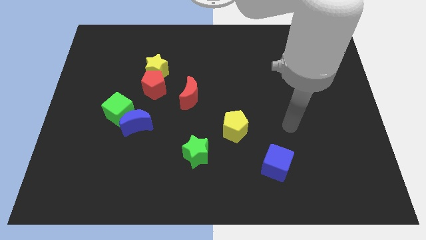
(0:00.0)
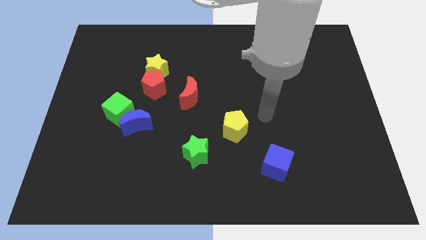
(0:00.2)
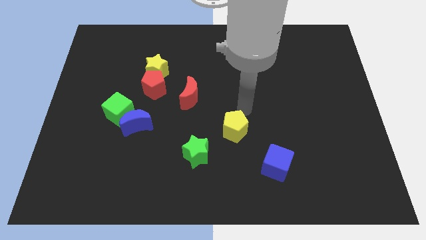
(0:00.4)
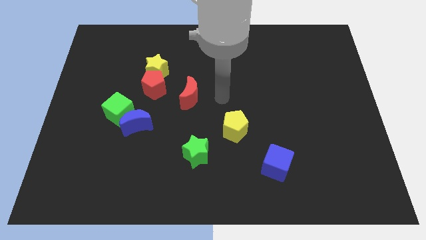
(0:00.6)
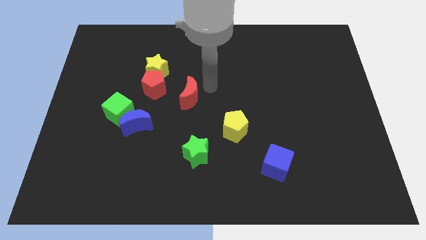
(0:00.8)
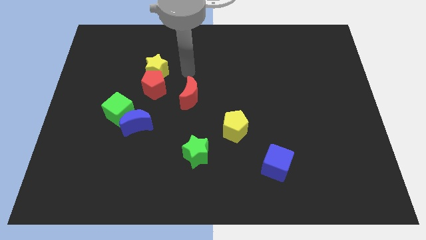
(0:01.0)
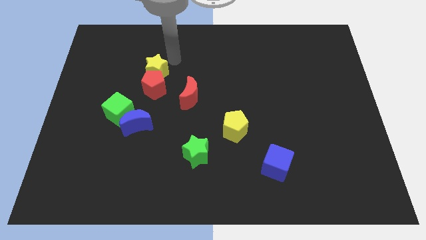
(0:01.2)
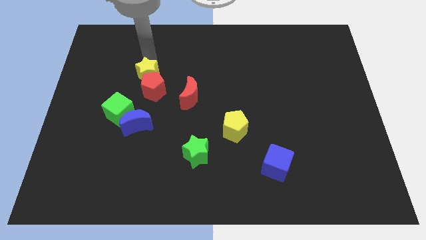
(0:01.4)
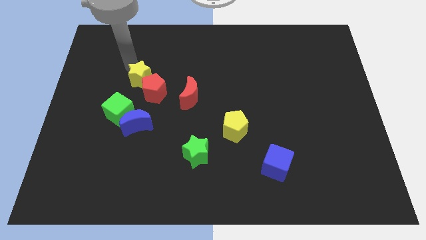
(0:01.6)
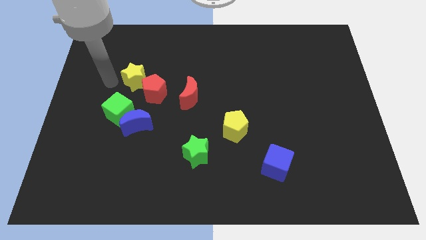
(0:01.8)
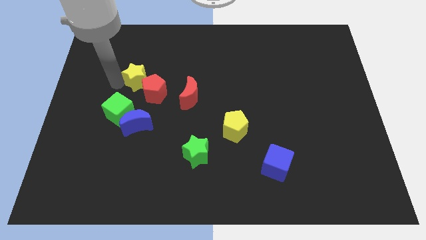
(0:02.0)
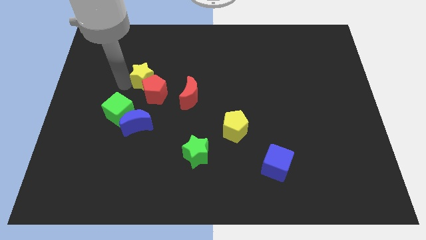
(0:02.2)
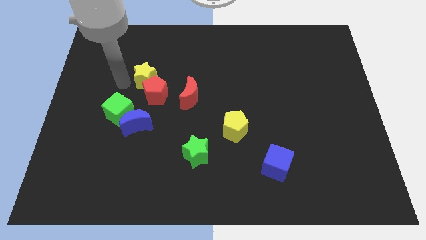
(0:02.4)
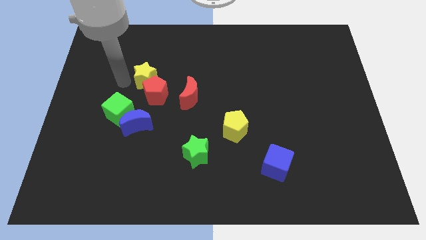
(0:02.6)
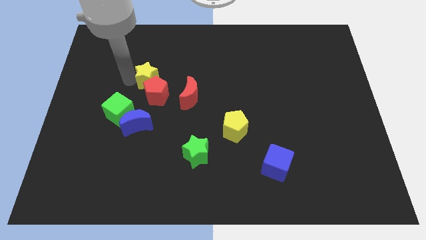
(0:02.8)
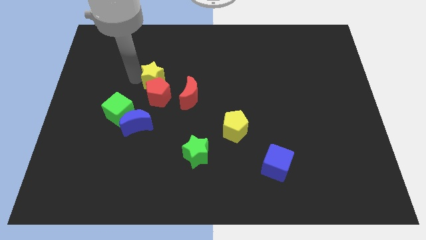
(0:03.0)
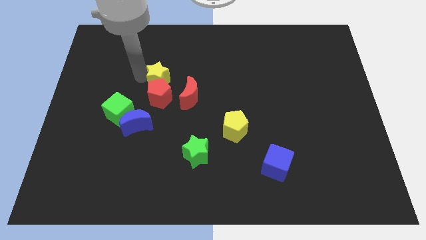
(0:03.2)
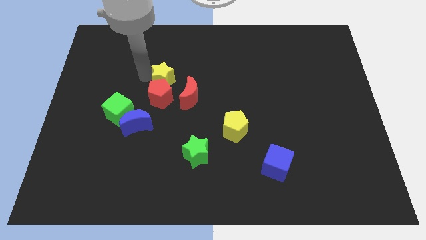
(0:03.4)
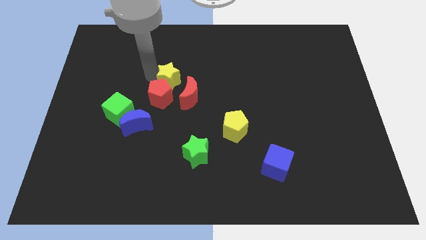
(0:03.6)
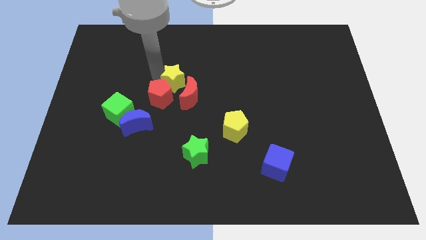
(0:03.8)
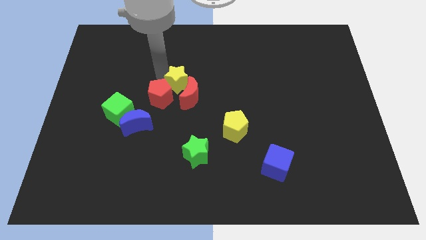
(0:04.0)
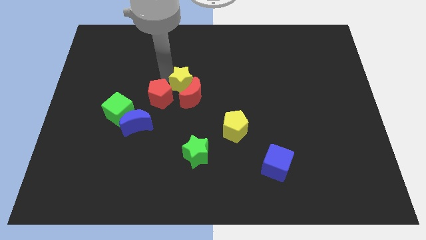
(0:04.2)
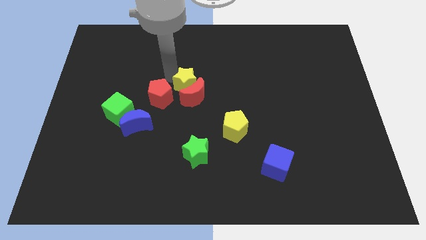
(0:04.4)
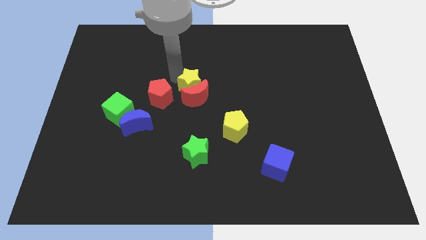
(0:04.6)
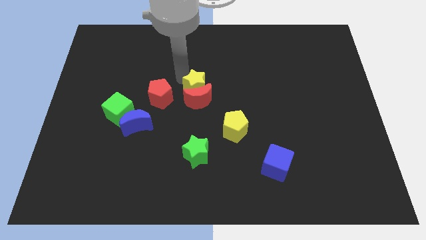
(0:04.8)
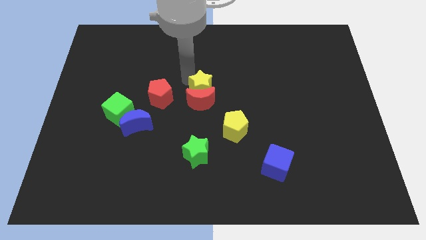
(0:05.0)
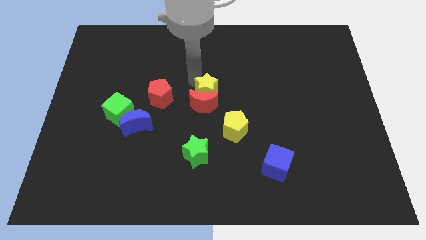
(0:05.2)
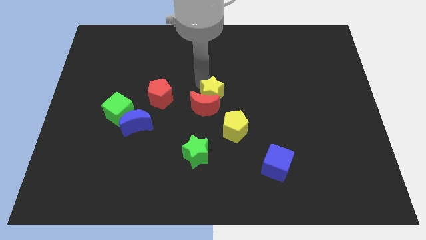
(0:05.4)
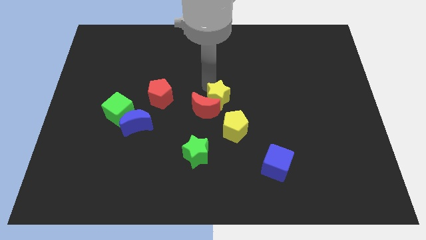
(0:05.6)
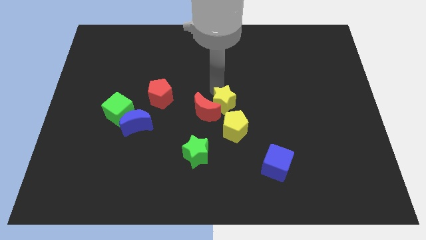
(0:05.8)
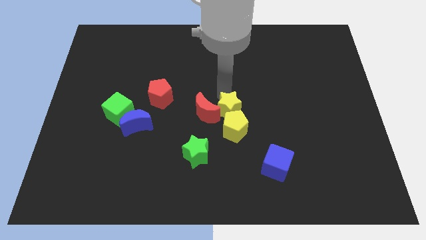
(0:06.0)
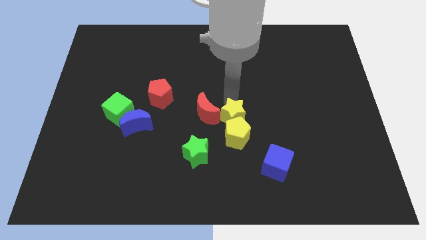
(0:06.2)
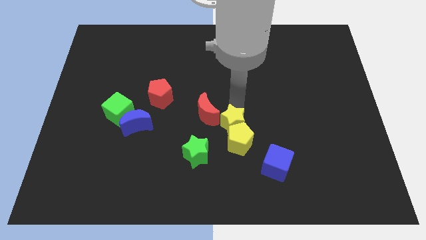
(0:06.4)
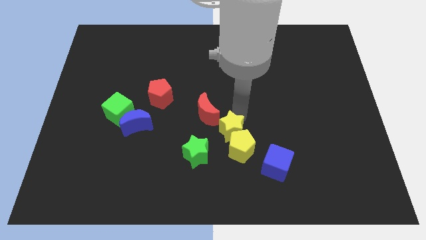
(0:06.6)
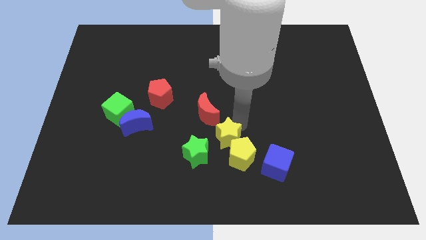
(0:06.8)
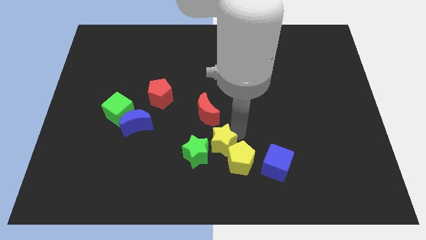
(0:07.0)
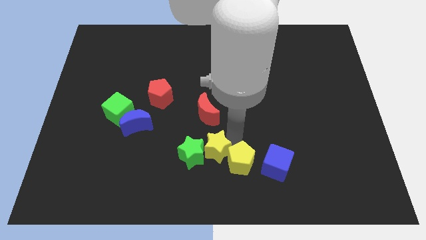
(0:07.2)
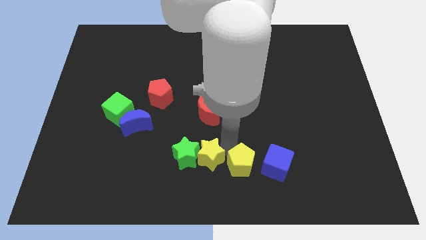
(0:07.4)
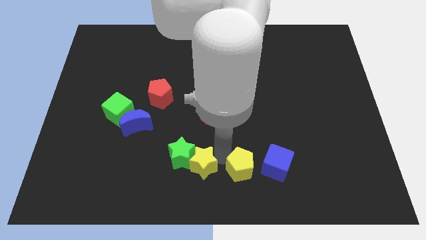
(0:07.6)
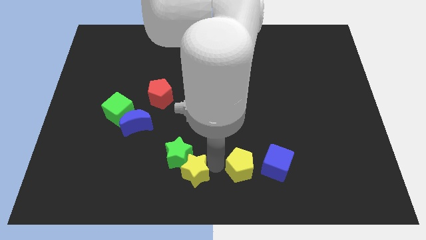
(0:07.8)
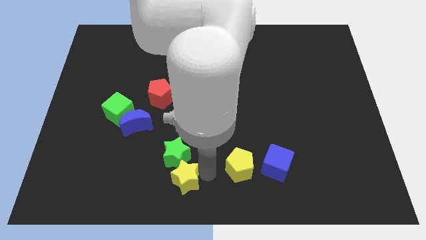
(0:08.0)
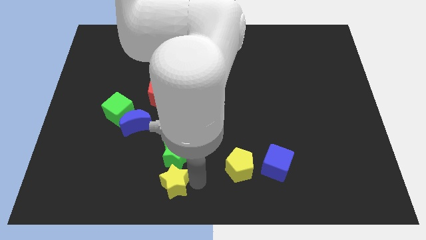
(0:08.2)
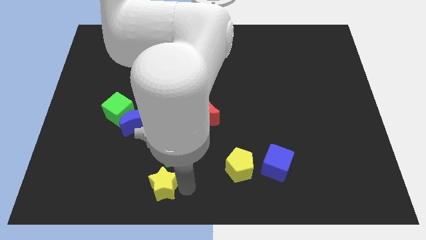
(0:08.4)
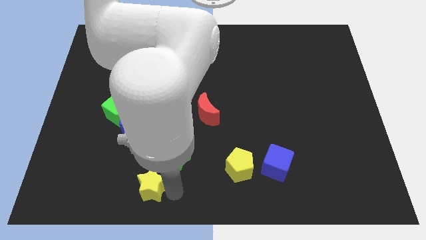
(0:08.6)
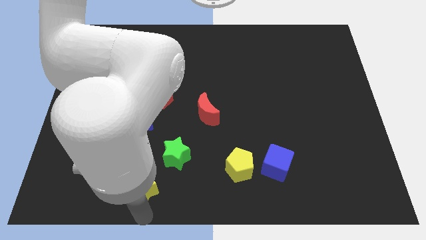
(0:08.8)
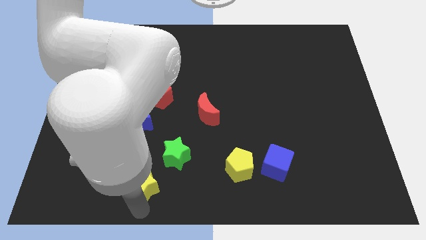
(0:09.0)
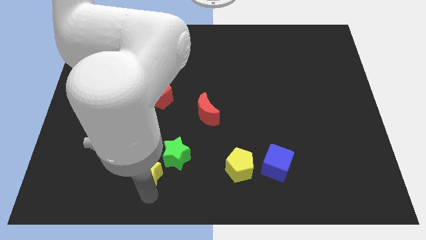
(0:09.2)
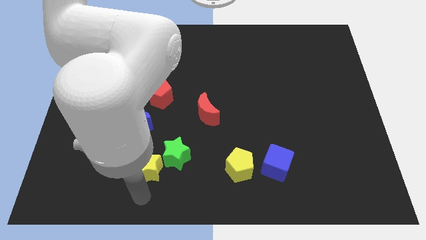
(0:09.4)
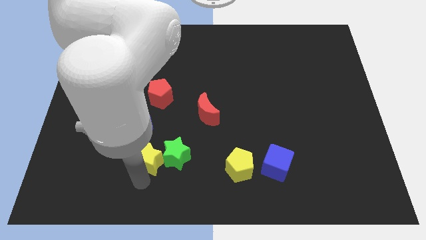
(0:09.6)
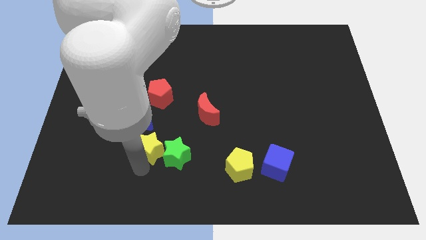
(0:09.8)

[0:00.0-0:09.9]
push the yellow star diagonally down and to the right of the green cube

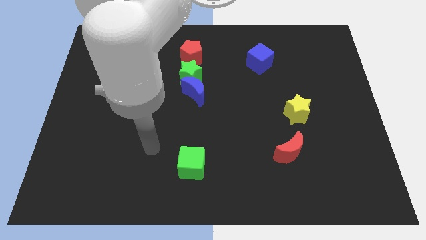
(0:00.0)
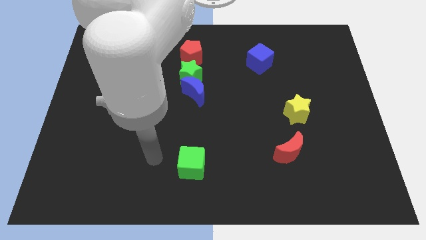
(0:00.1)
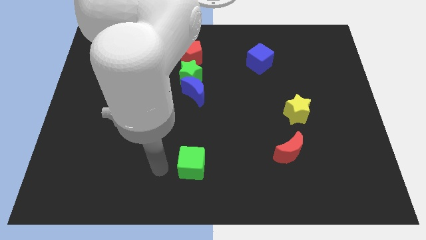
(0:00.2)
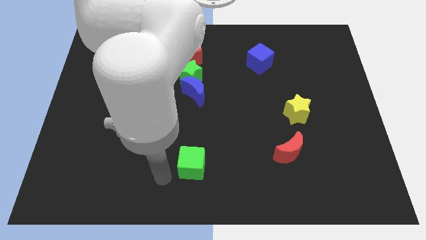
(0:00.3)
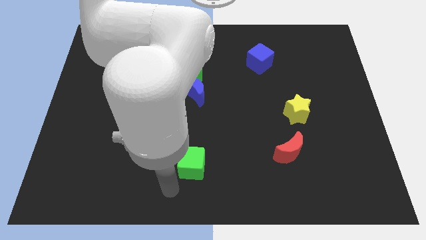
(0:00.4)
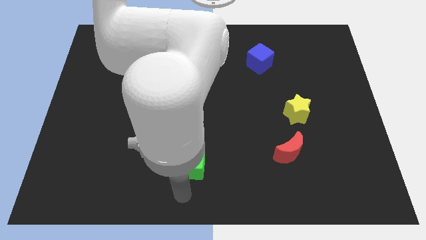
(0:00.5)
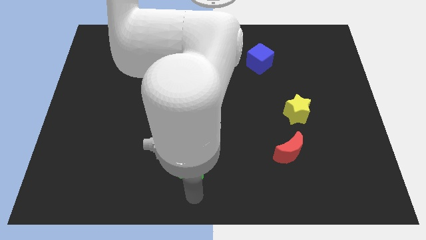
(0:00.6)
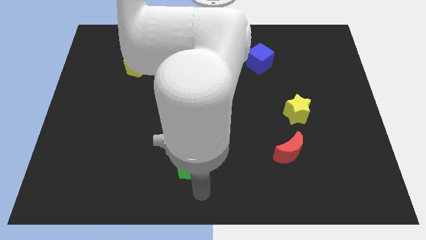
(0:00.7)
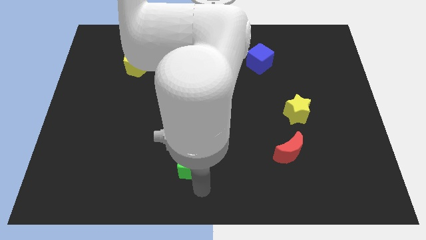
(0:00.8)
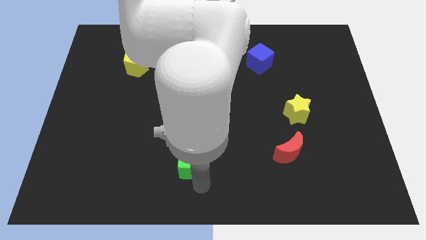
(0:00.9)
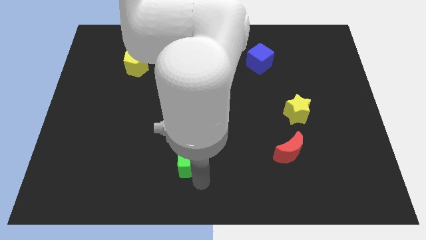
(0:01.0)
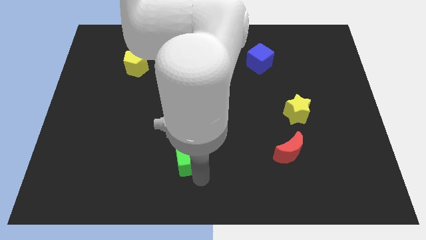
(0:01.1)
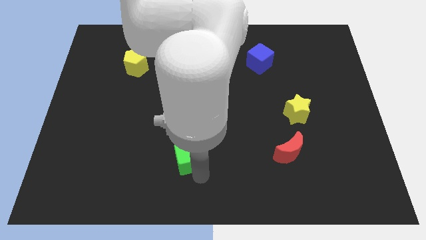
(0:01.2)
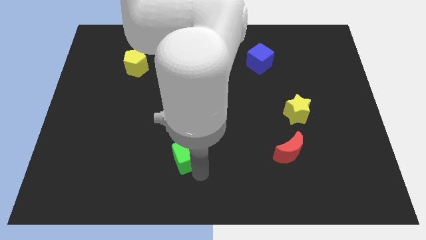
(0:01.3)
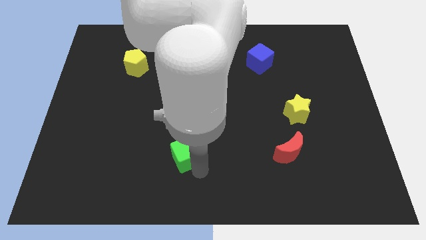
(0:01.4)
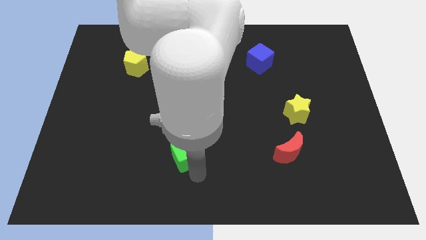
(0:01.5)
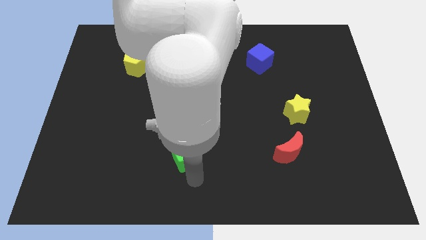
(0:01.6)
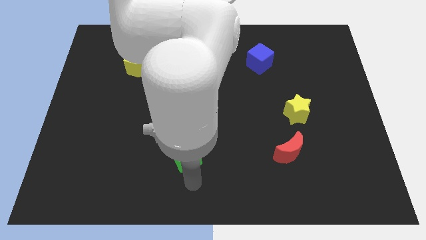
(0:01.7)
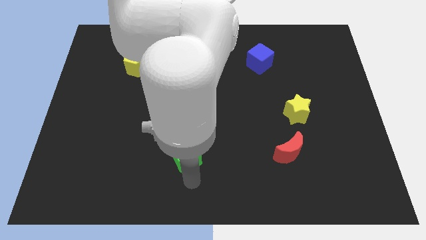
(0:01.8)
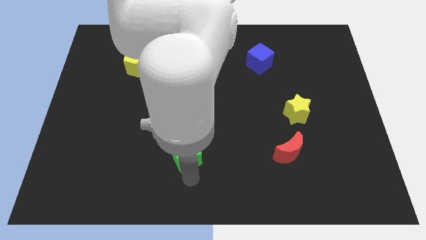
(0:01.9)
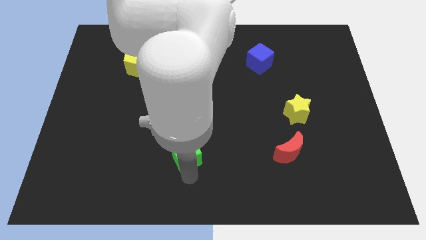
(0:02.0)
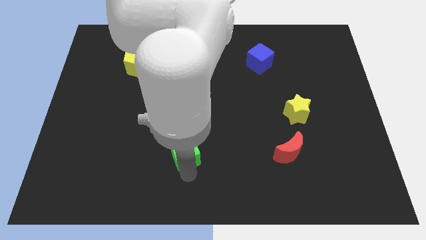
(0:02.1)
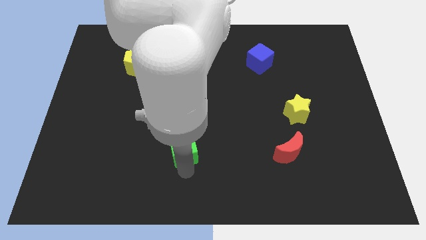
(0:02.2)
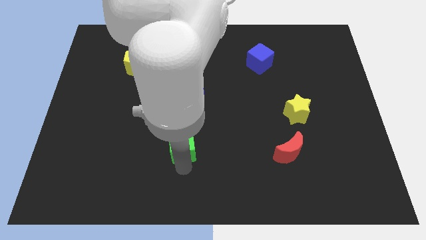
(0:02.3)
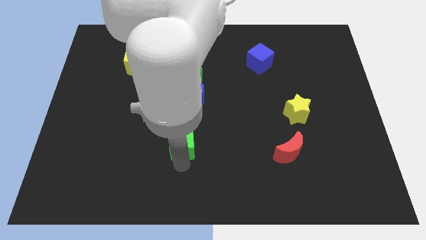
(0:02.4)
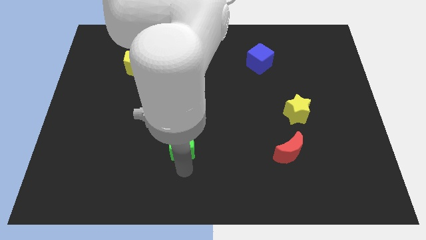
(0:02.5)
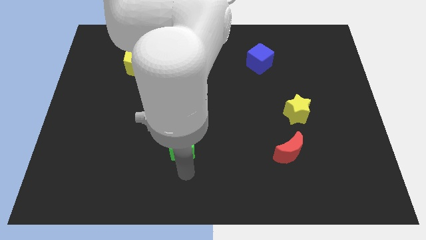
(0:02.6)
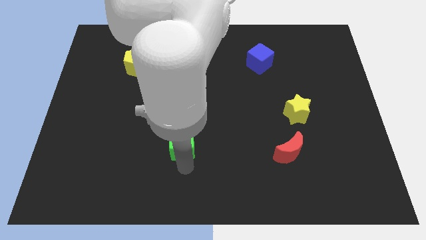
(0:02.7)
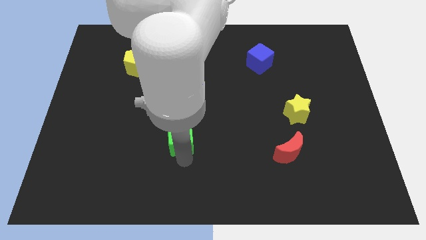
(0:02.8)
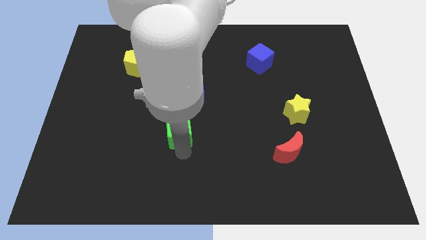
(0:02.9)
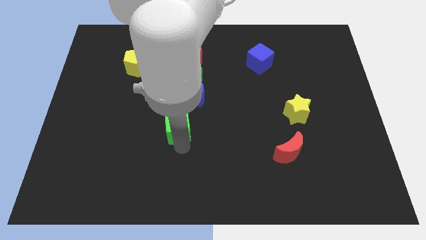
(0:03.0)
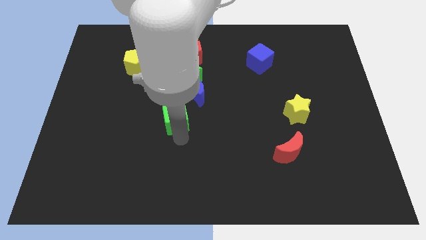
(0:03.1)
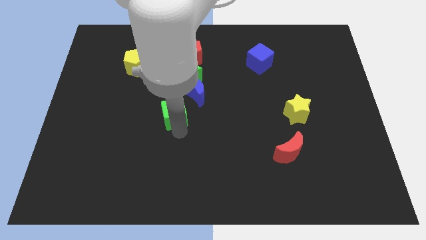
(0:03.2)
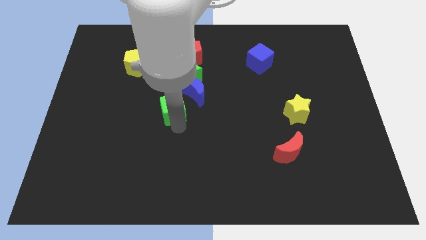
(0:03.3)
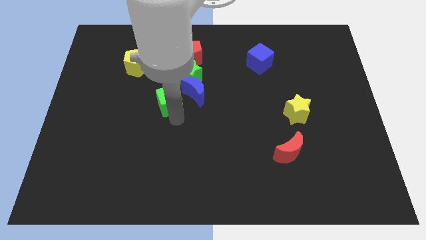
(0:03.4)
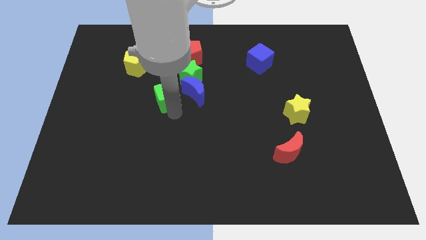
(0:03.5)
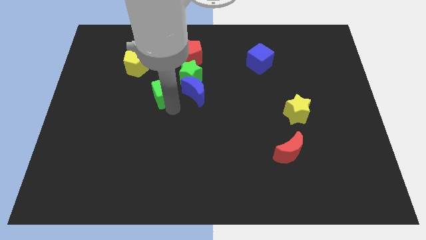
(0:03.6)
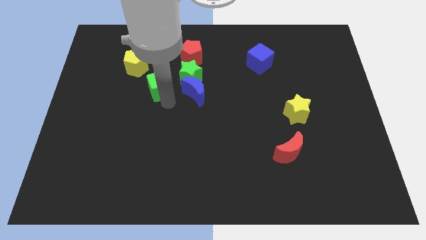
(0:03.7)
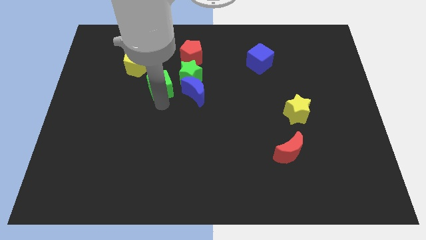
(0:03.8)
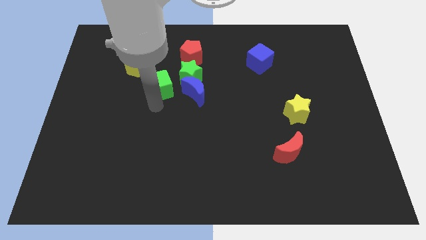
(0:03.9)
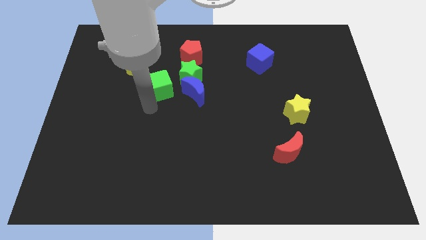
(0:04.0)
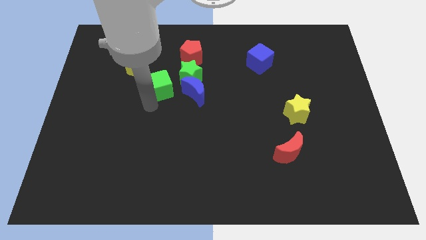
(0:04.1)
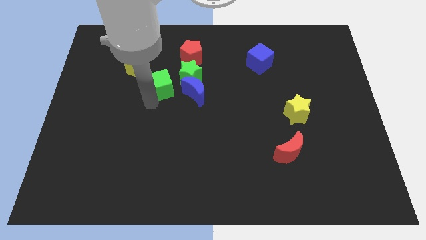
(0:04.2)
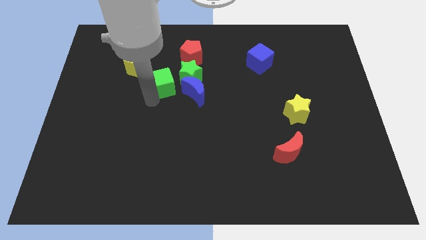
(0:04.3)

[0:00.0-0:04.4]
move the green cube to the bottom left side of the red pentagon
